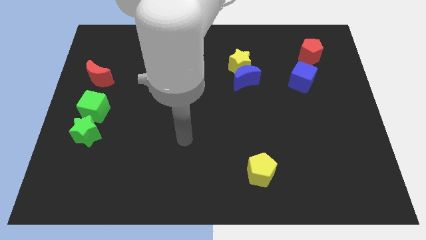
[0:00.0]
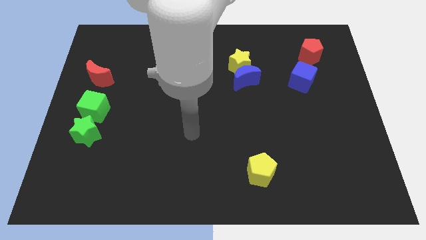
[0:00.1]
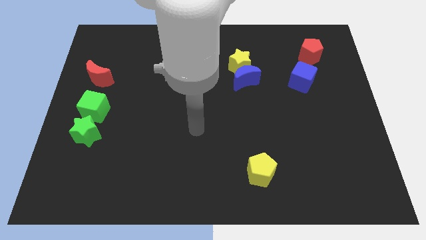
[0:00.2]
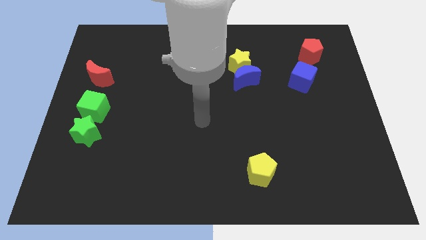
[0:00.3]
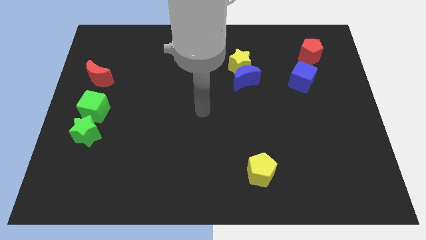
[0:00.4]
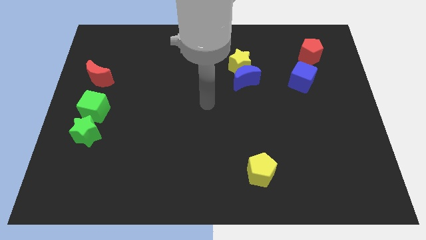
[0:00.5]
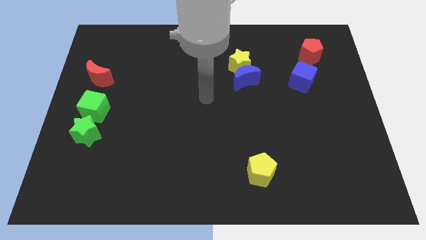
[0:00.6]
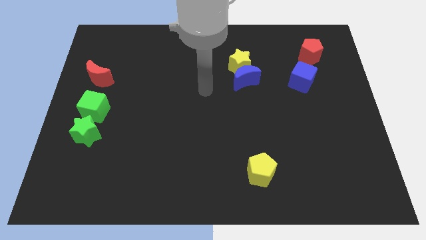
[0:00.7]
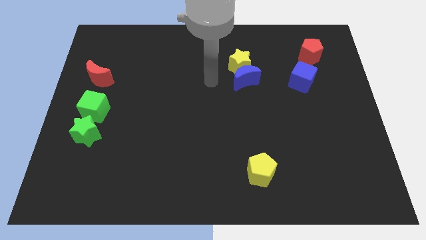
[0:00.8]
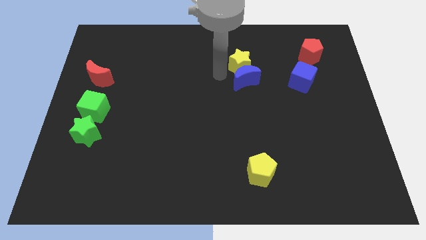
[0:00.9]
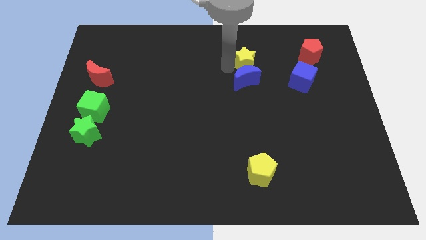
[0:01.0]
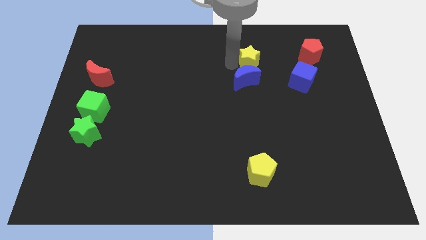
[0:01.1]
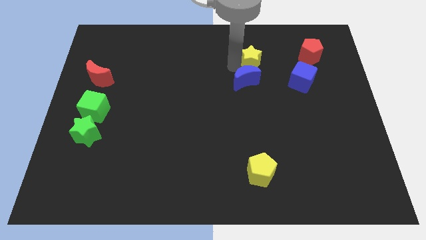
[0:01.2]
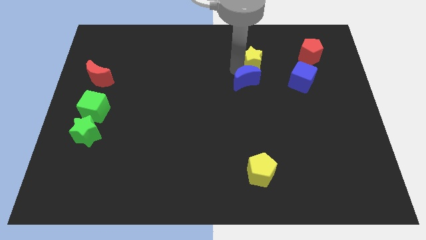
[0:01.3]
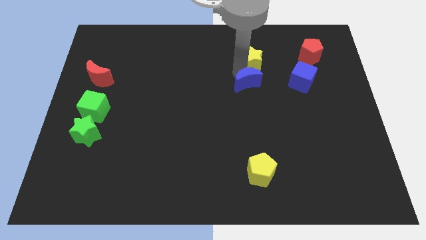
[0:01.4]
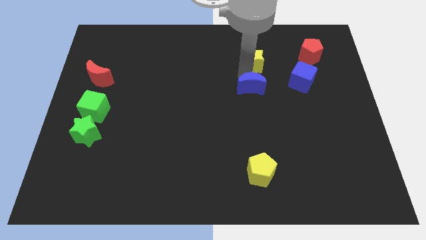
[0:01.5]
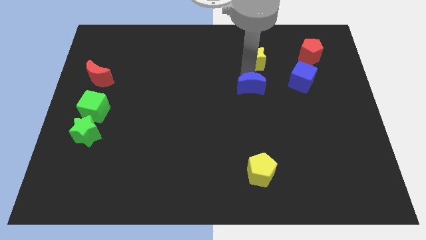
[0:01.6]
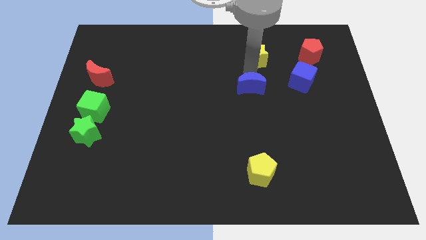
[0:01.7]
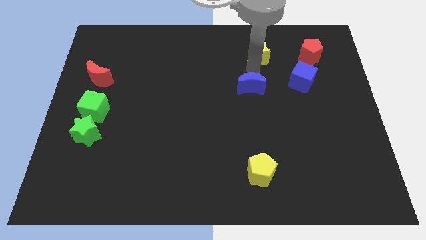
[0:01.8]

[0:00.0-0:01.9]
pull the blue moon apart from the yellow star

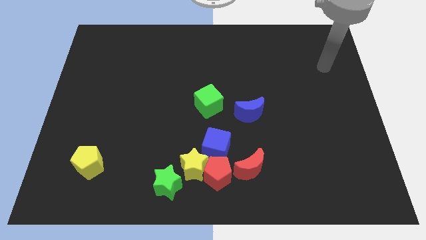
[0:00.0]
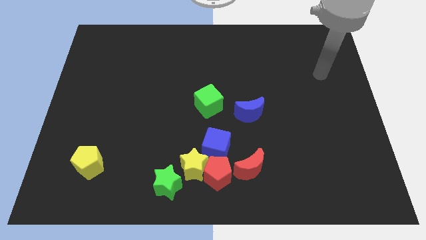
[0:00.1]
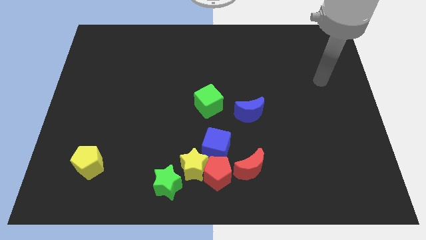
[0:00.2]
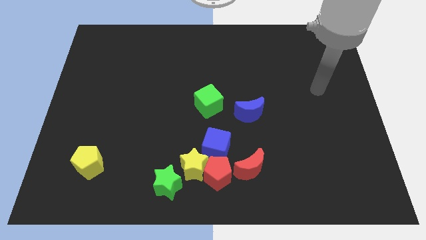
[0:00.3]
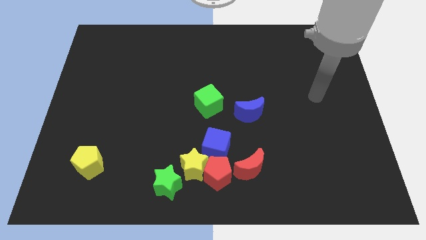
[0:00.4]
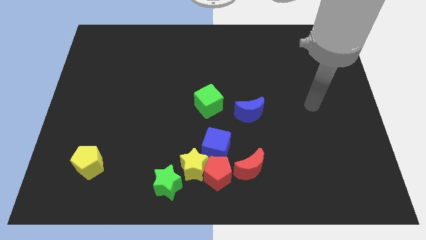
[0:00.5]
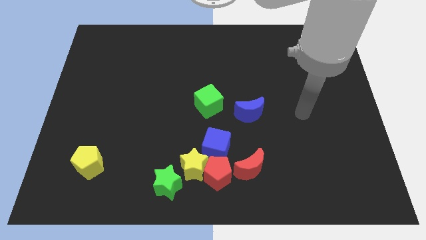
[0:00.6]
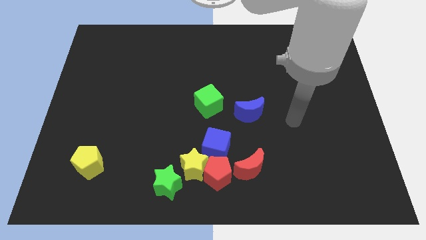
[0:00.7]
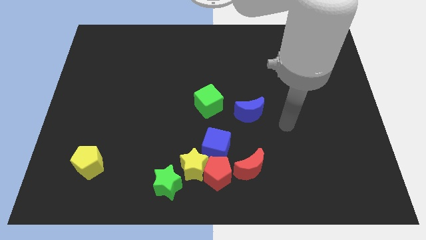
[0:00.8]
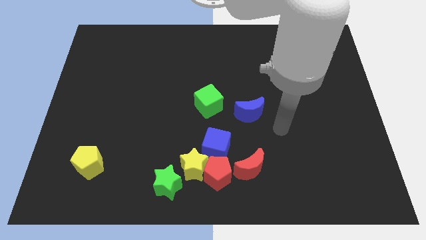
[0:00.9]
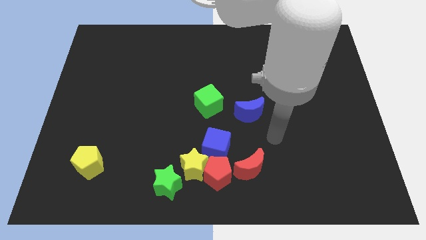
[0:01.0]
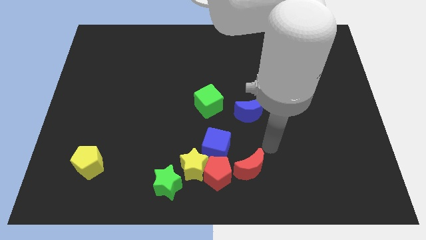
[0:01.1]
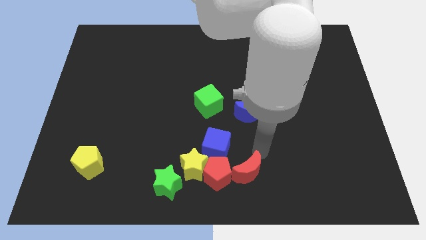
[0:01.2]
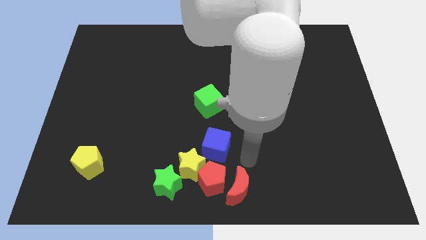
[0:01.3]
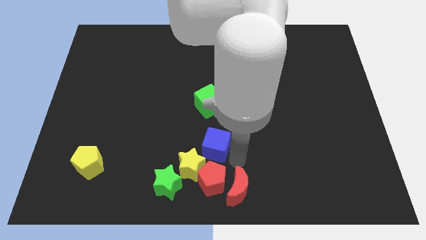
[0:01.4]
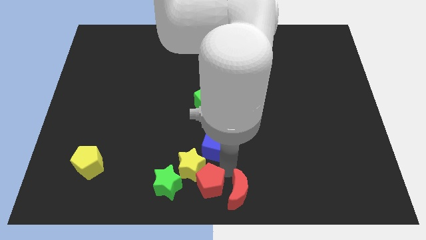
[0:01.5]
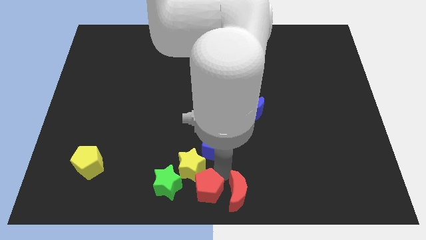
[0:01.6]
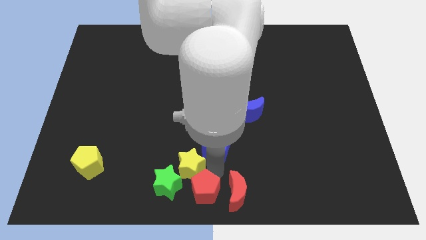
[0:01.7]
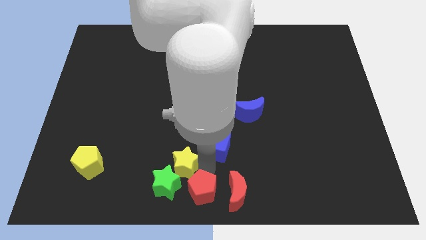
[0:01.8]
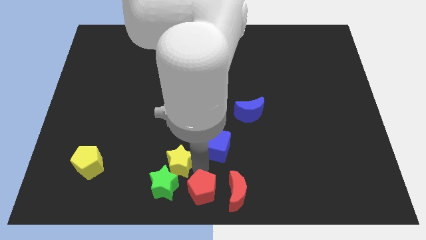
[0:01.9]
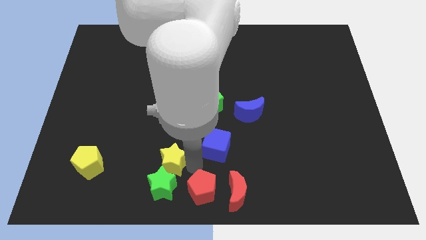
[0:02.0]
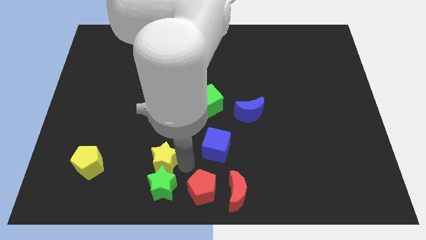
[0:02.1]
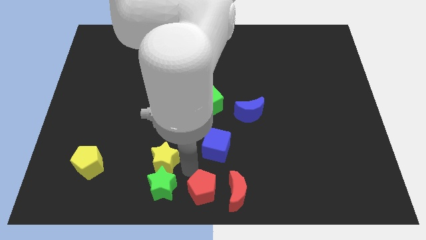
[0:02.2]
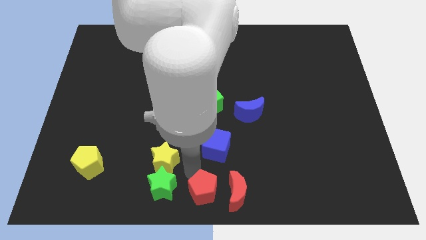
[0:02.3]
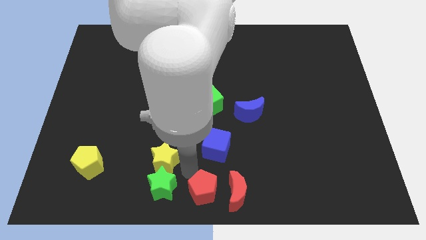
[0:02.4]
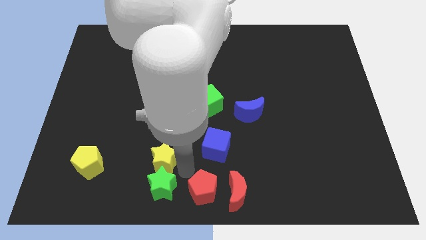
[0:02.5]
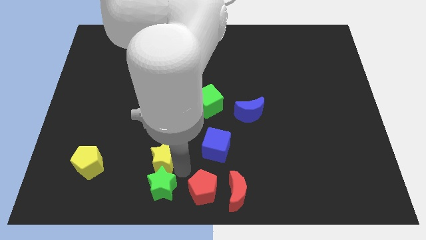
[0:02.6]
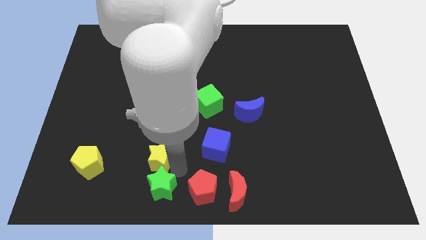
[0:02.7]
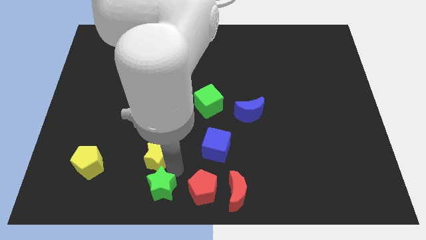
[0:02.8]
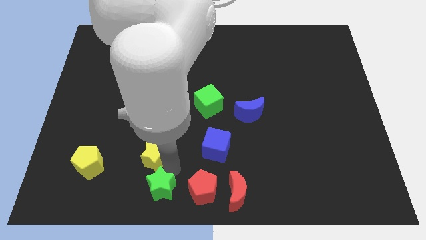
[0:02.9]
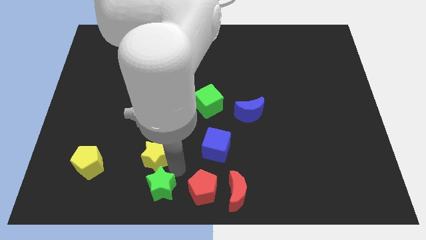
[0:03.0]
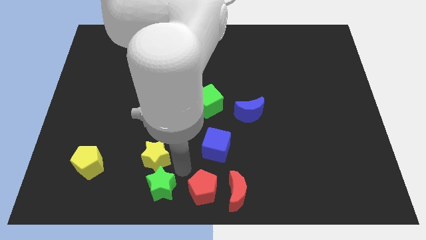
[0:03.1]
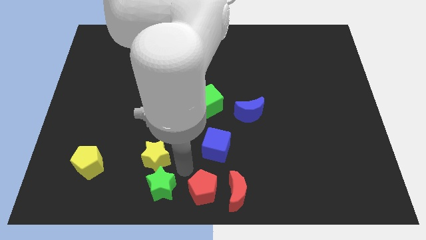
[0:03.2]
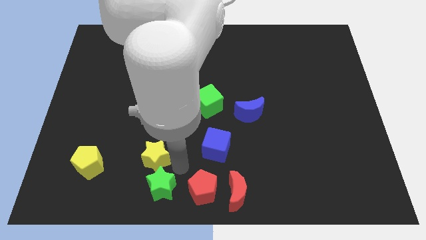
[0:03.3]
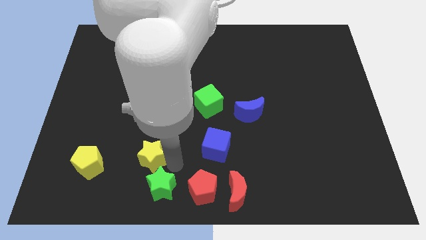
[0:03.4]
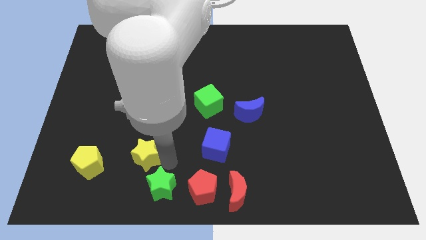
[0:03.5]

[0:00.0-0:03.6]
pull the yellow star apart from the red pentagon, green star, and blue cube

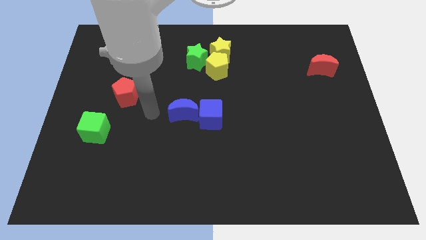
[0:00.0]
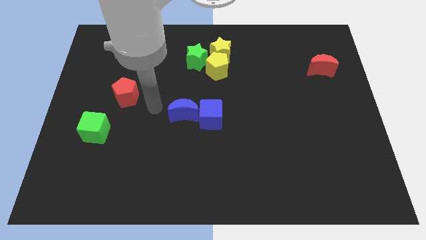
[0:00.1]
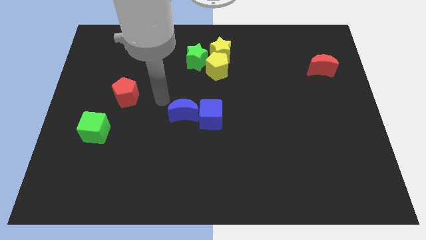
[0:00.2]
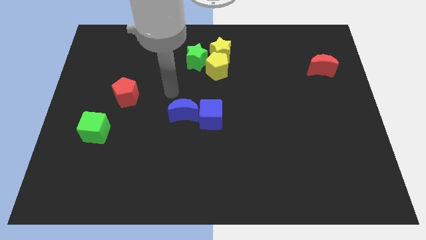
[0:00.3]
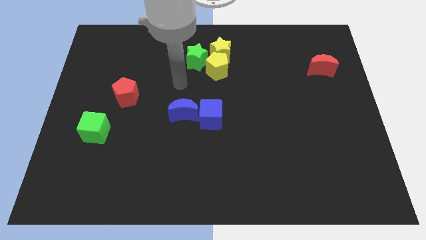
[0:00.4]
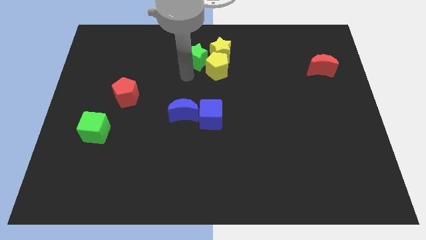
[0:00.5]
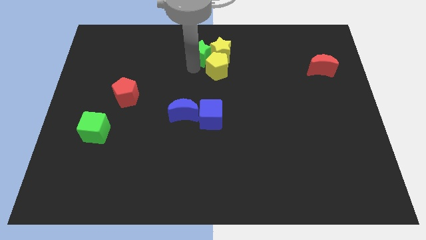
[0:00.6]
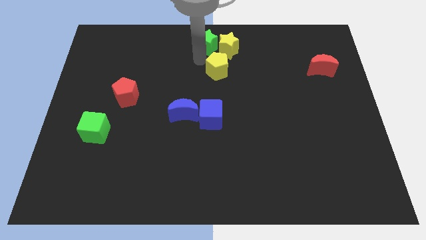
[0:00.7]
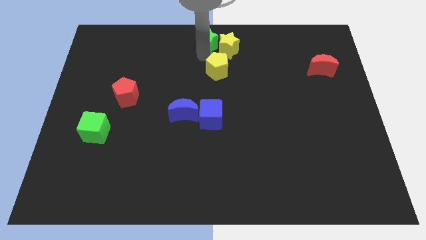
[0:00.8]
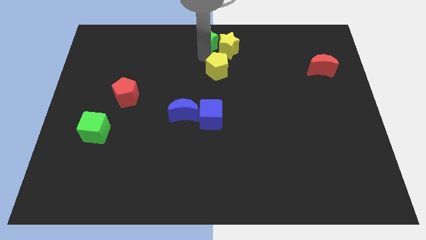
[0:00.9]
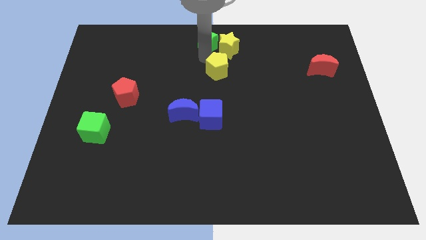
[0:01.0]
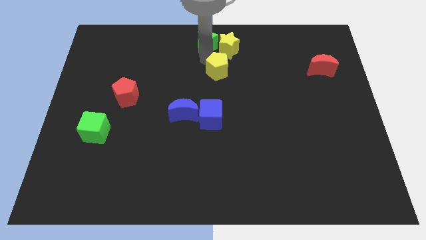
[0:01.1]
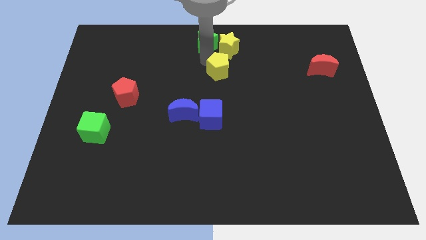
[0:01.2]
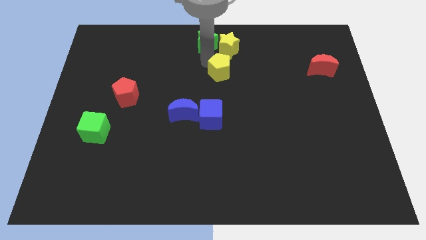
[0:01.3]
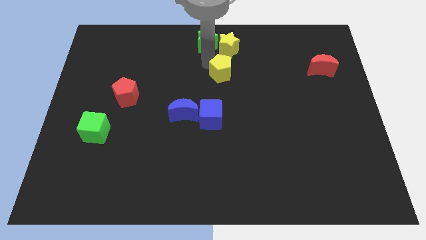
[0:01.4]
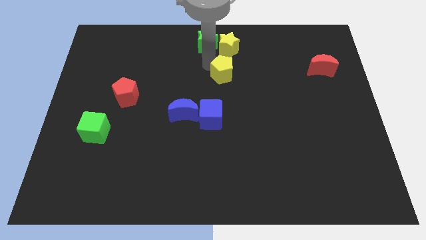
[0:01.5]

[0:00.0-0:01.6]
pull the yellow pentagon apart from the yellow star and green star

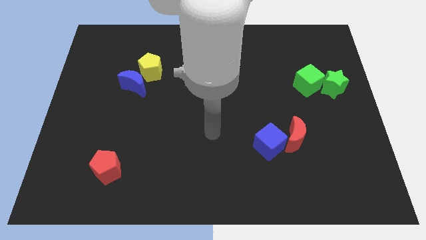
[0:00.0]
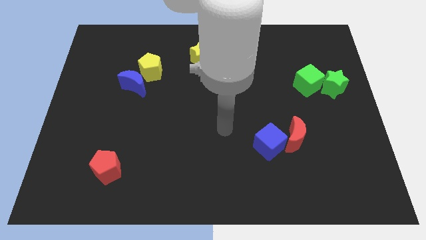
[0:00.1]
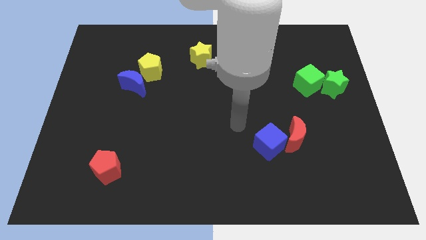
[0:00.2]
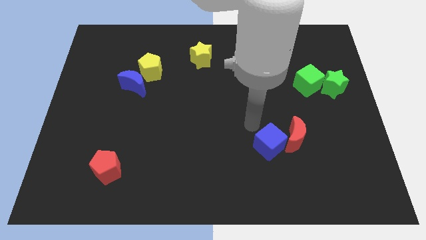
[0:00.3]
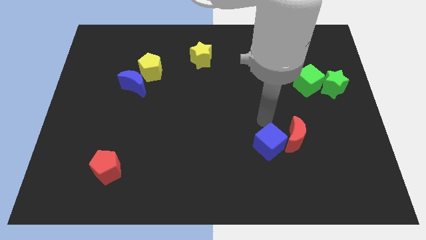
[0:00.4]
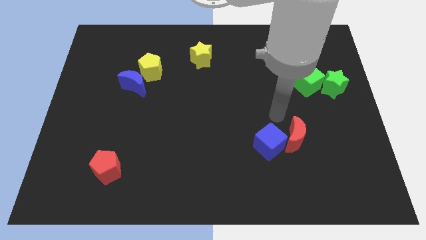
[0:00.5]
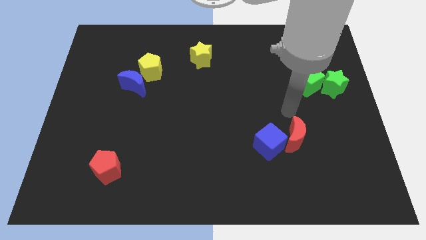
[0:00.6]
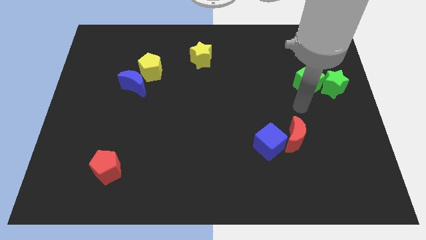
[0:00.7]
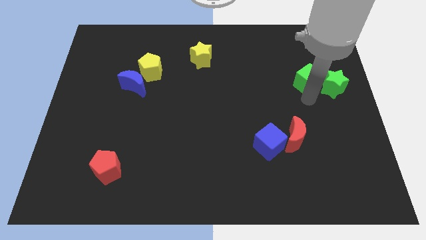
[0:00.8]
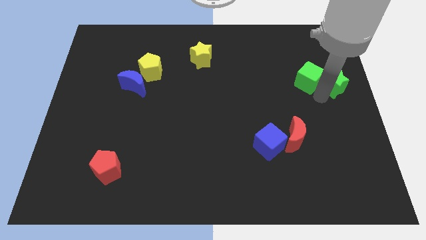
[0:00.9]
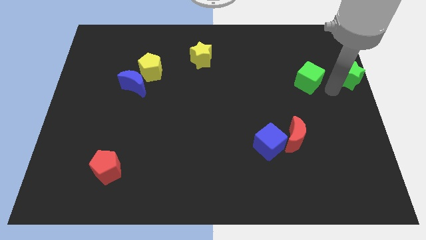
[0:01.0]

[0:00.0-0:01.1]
separate the green cube from the green star

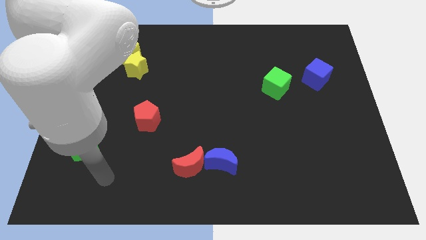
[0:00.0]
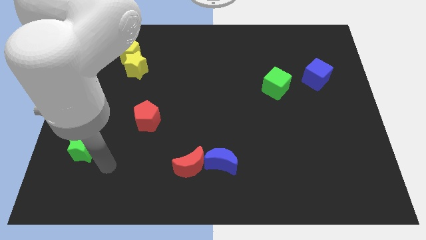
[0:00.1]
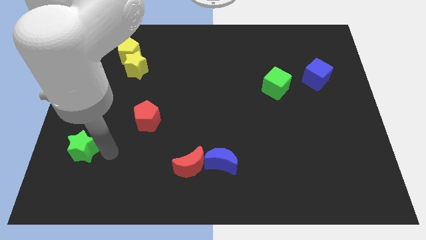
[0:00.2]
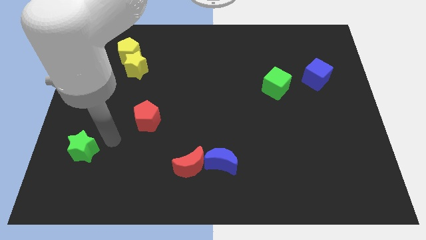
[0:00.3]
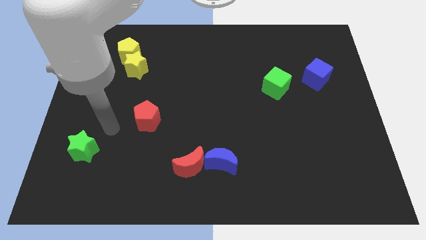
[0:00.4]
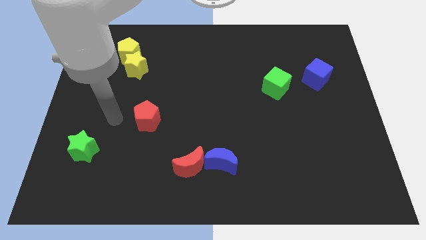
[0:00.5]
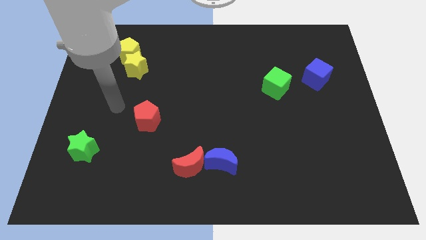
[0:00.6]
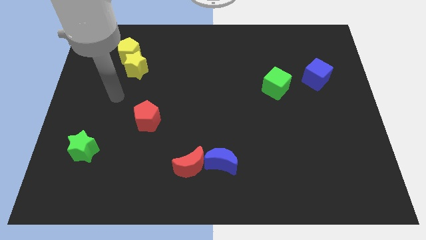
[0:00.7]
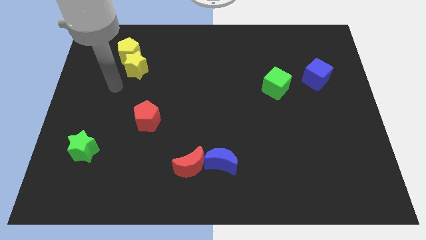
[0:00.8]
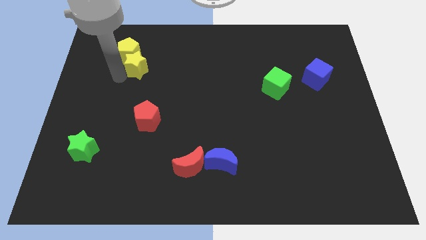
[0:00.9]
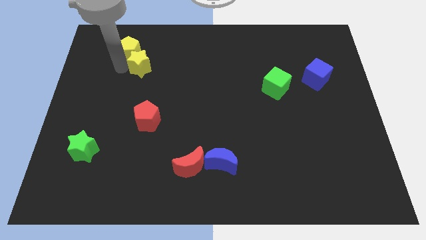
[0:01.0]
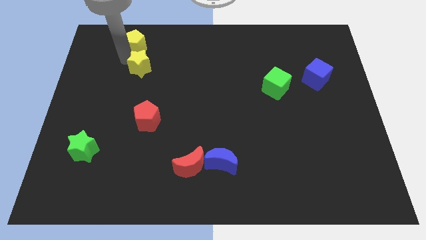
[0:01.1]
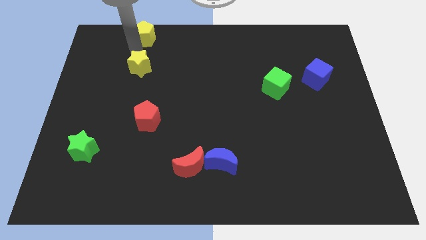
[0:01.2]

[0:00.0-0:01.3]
separate the yellow star from the yellow pentagon
